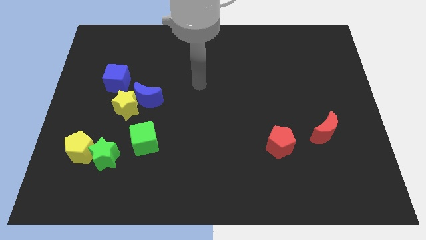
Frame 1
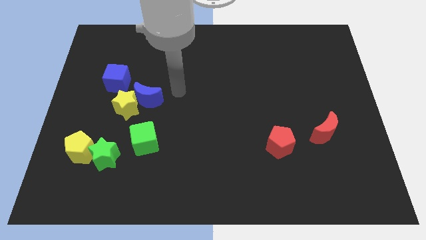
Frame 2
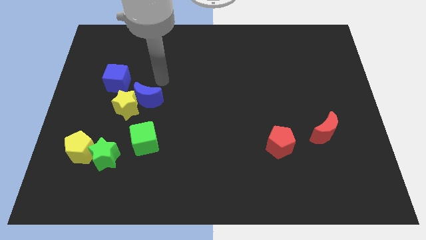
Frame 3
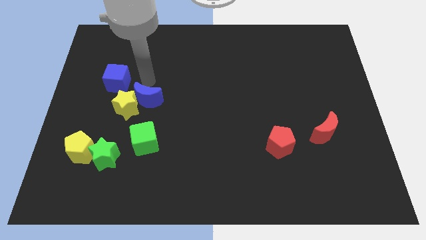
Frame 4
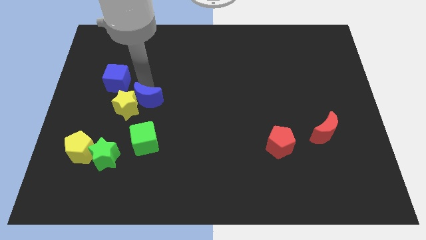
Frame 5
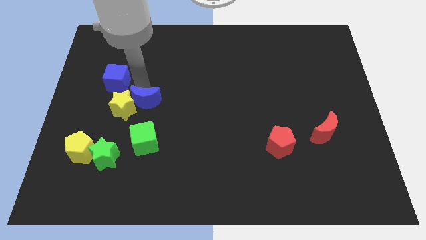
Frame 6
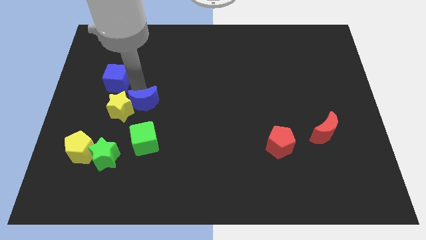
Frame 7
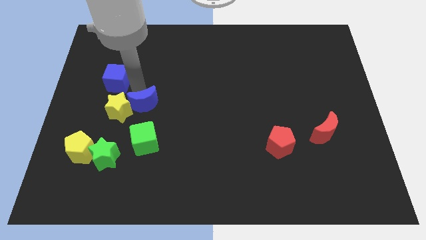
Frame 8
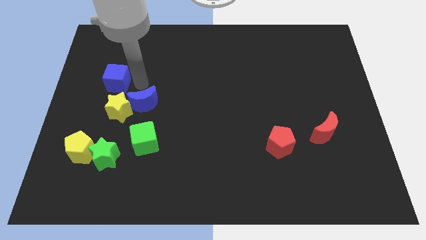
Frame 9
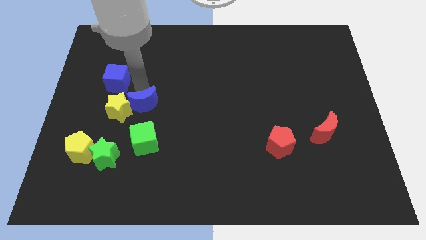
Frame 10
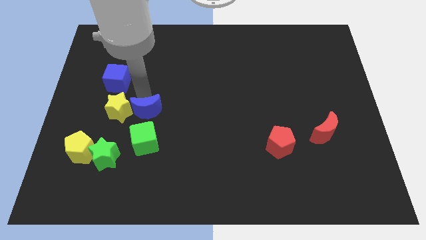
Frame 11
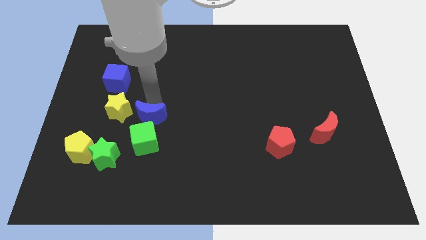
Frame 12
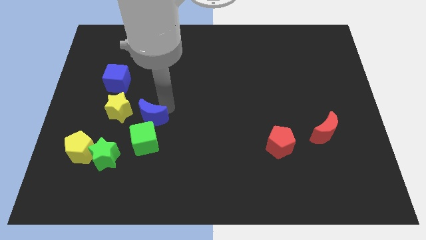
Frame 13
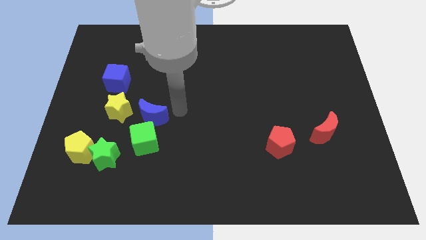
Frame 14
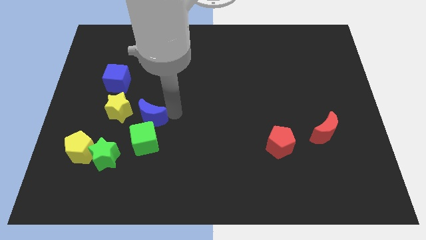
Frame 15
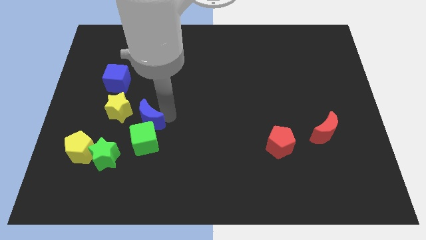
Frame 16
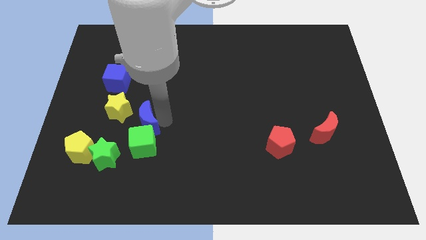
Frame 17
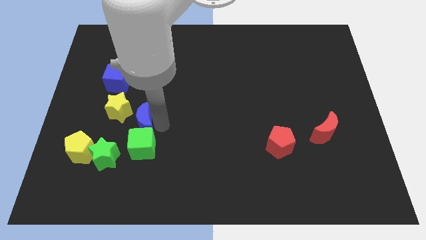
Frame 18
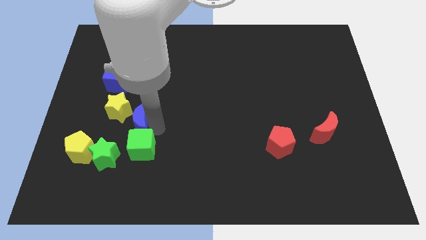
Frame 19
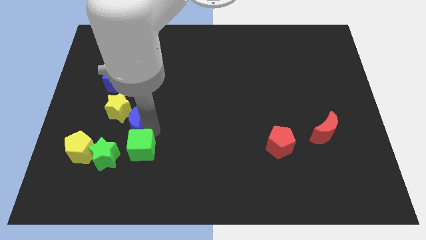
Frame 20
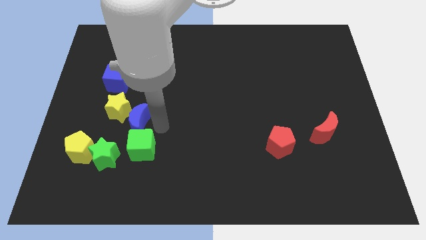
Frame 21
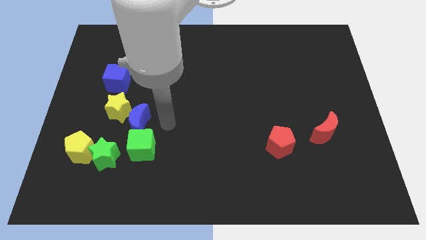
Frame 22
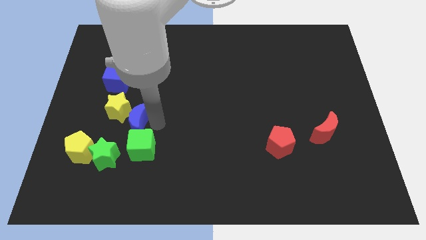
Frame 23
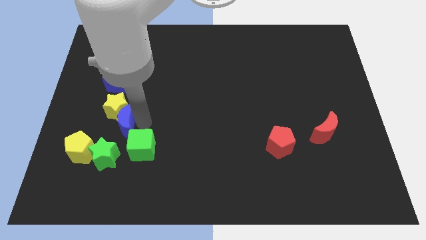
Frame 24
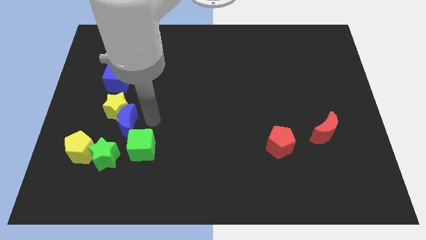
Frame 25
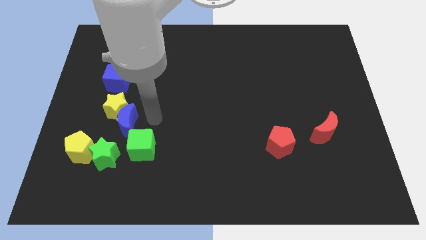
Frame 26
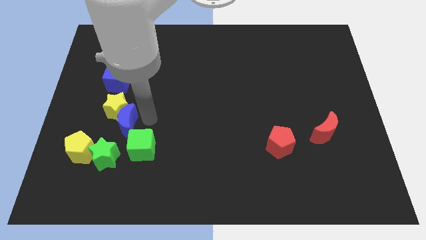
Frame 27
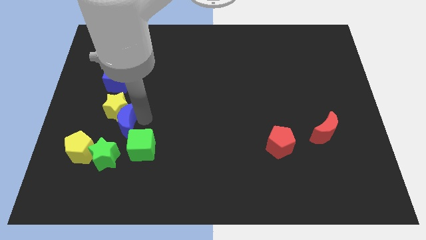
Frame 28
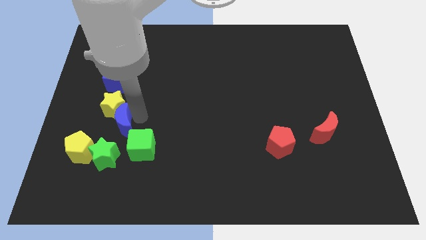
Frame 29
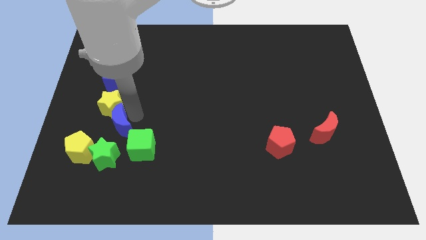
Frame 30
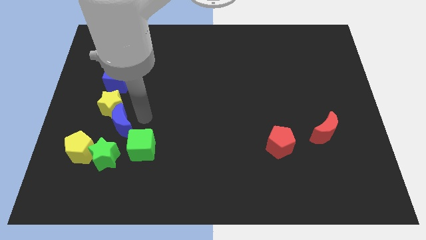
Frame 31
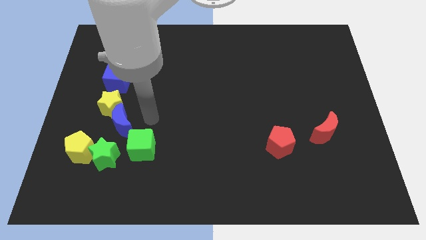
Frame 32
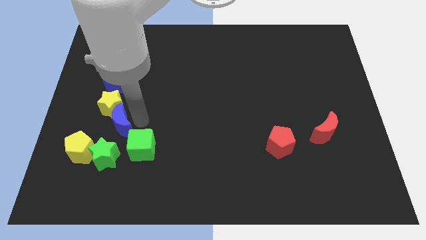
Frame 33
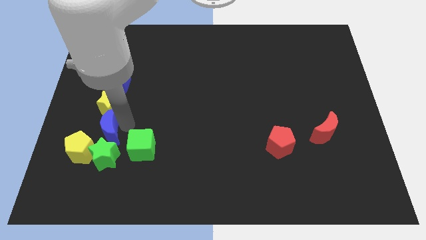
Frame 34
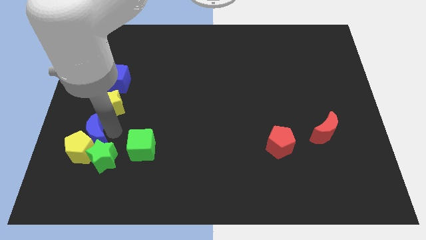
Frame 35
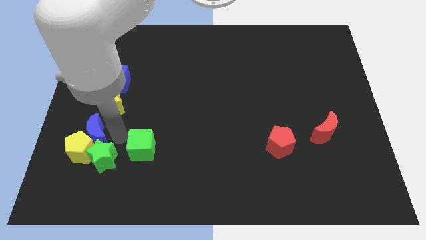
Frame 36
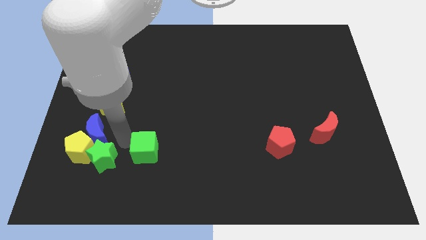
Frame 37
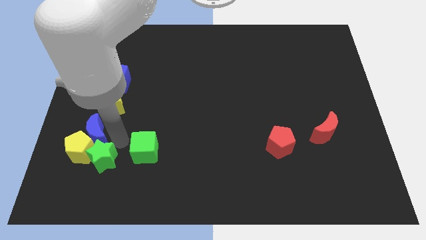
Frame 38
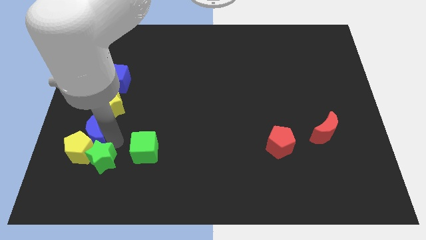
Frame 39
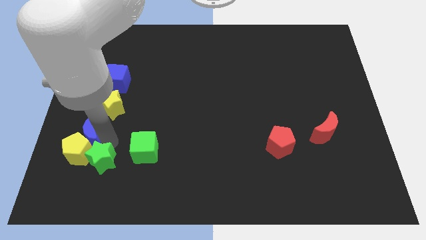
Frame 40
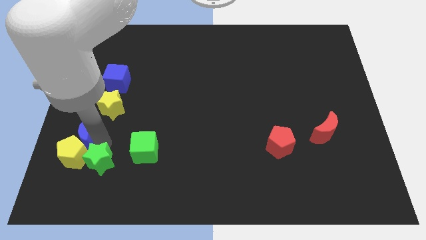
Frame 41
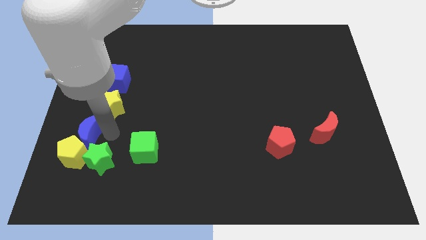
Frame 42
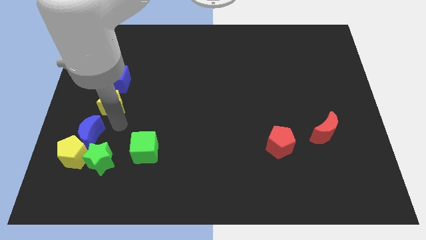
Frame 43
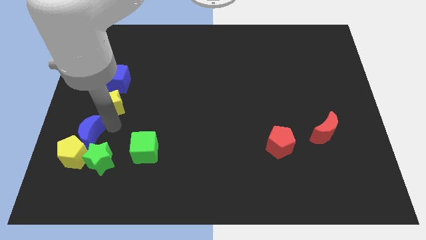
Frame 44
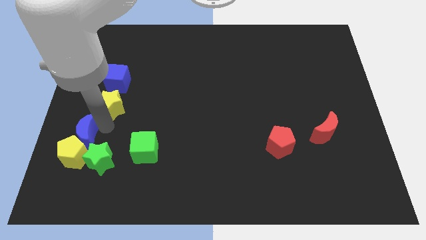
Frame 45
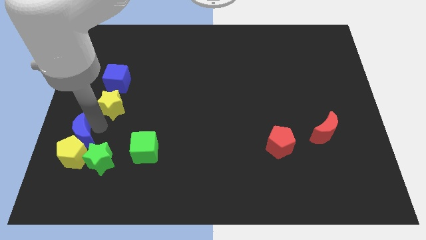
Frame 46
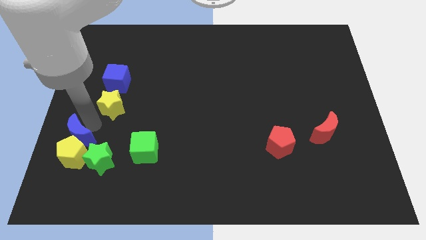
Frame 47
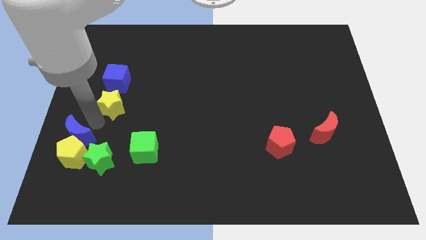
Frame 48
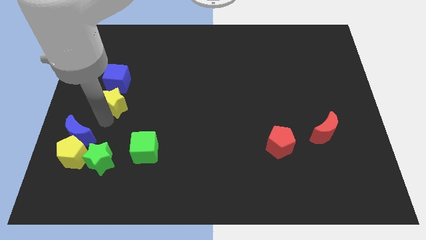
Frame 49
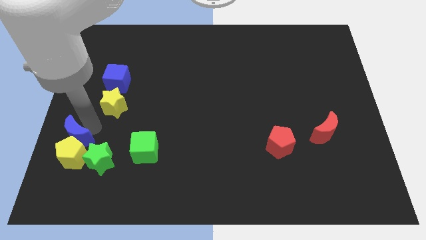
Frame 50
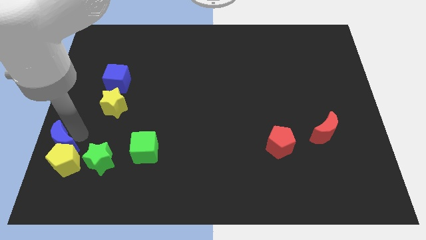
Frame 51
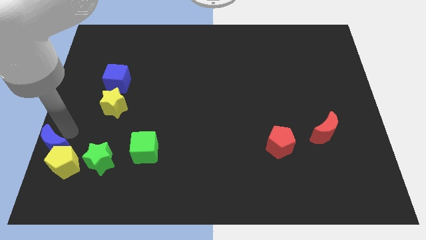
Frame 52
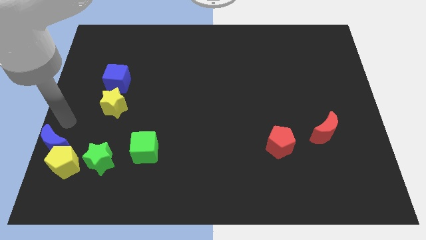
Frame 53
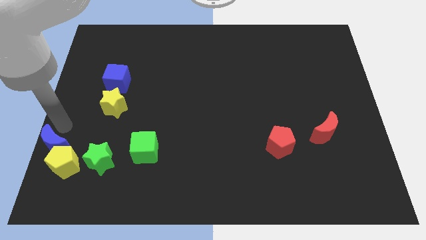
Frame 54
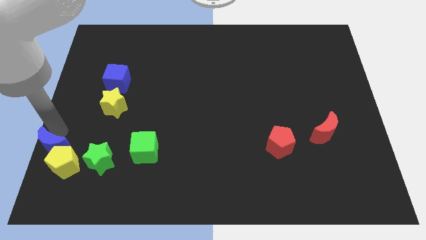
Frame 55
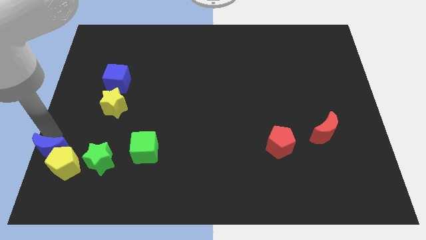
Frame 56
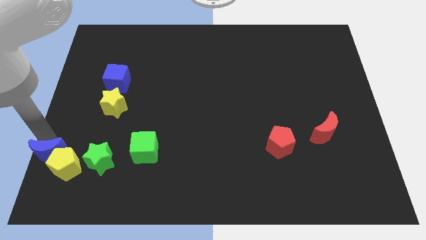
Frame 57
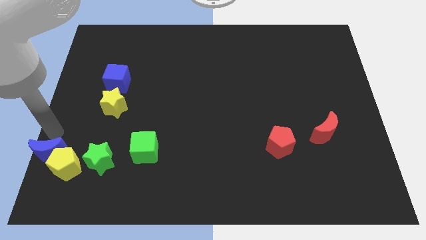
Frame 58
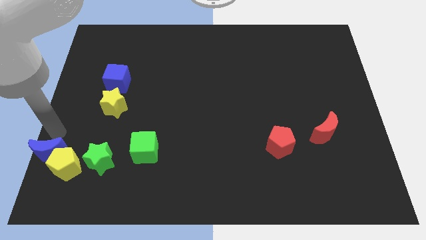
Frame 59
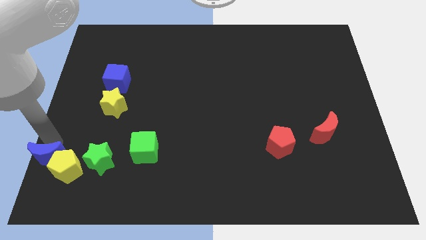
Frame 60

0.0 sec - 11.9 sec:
move the blue moon to the bottom left of the board

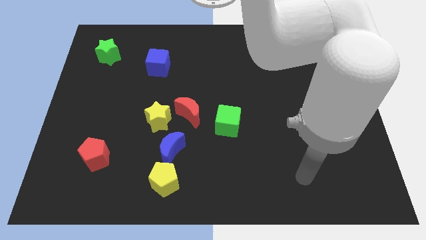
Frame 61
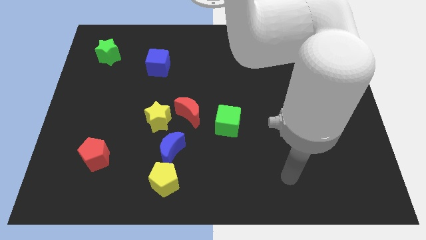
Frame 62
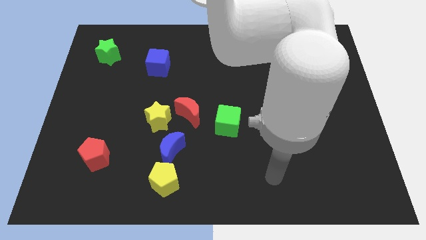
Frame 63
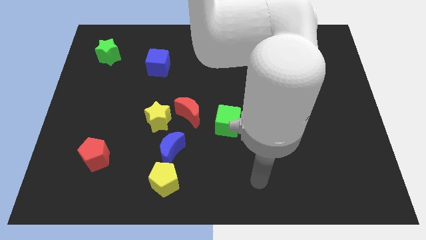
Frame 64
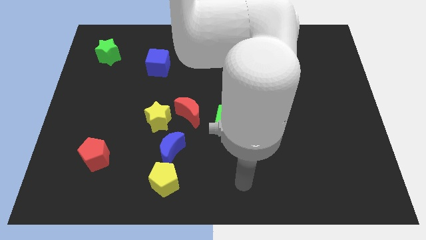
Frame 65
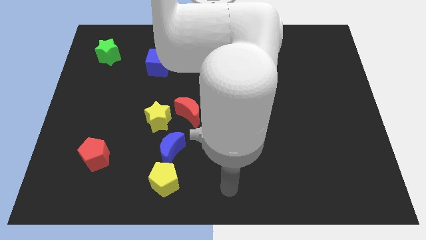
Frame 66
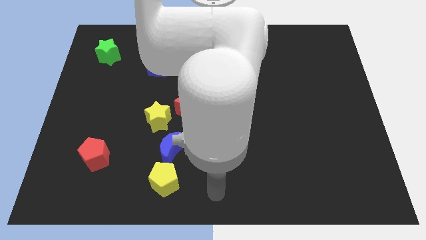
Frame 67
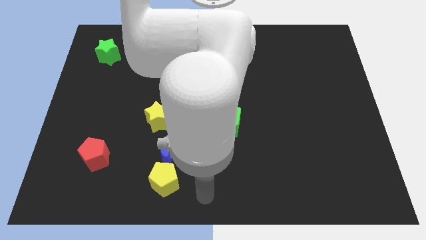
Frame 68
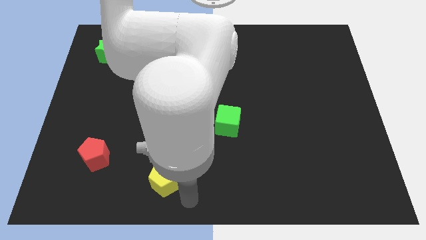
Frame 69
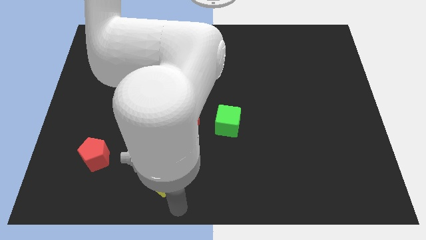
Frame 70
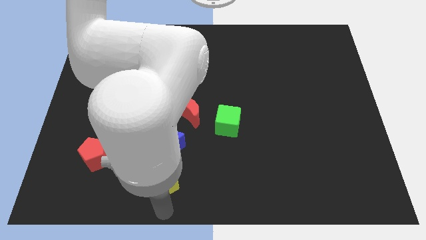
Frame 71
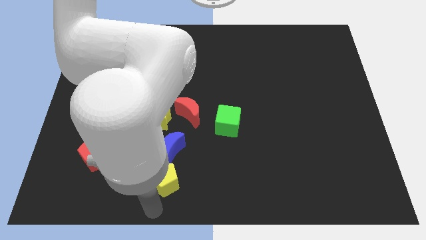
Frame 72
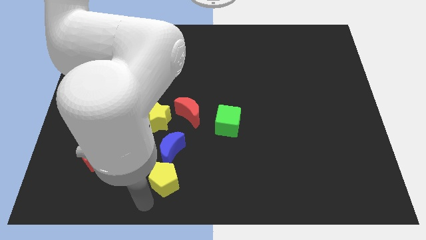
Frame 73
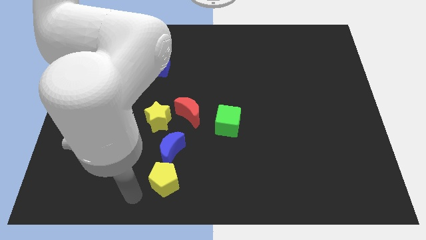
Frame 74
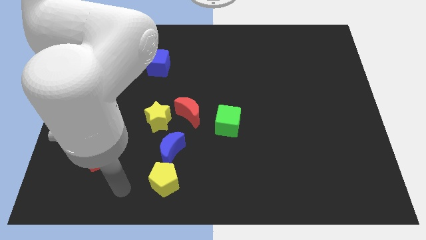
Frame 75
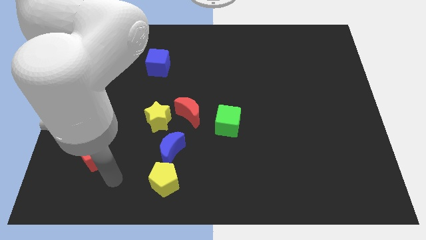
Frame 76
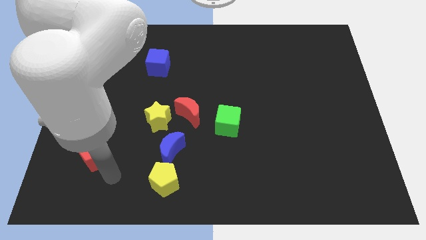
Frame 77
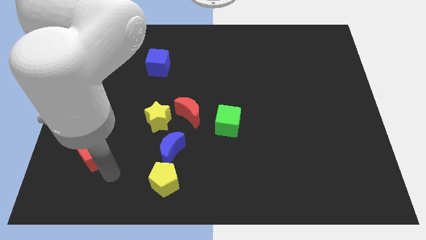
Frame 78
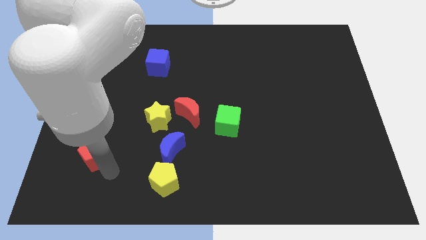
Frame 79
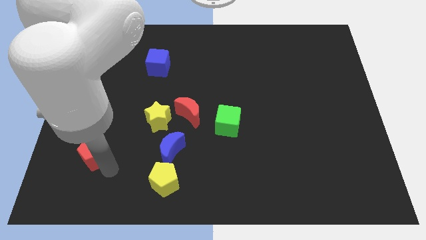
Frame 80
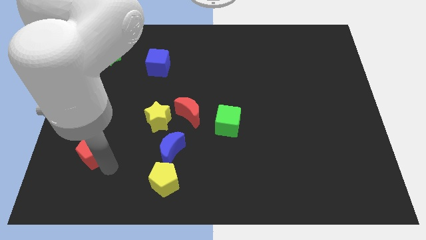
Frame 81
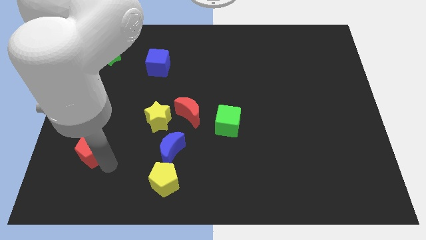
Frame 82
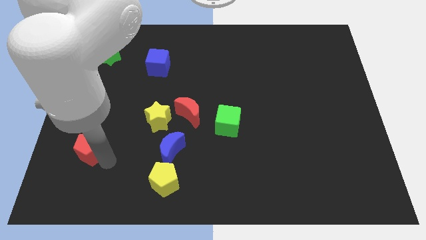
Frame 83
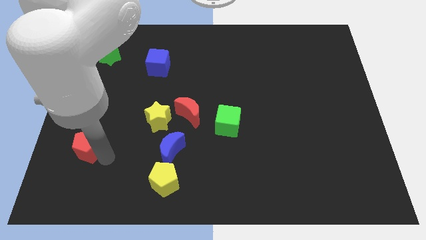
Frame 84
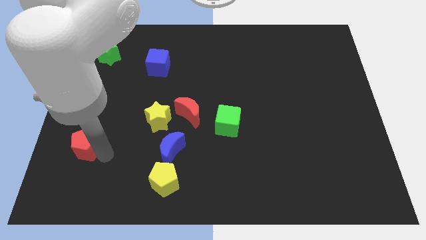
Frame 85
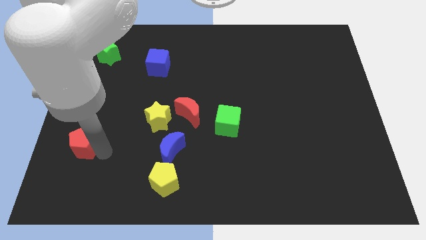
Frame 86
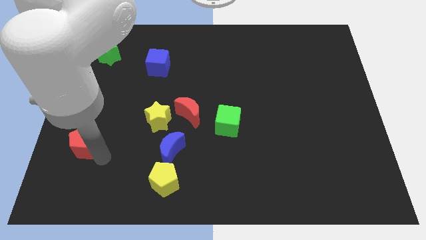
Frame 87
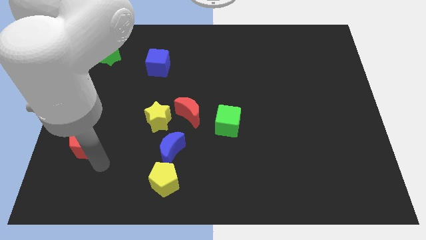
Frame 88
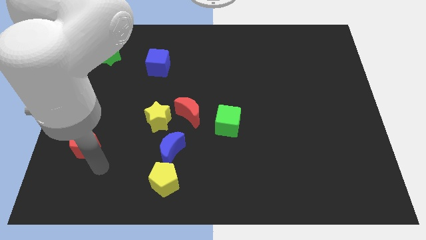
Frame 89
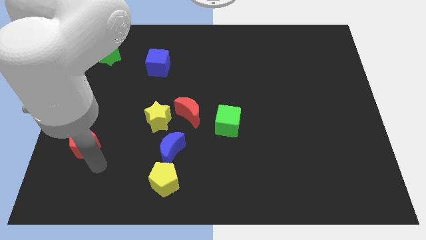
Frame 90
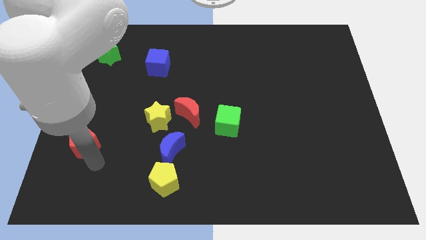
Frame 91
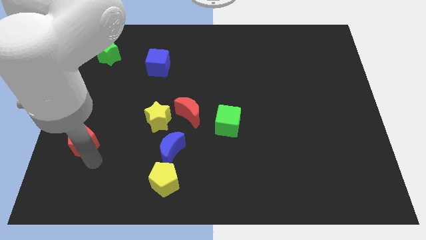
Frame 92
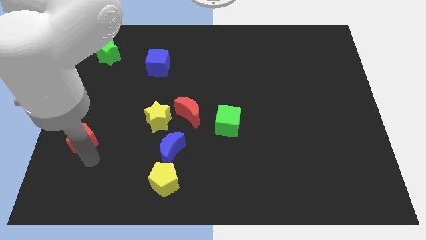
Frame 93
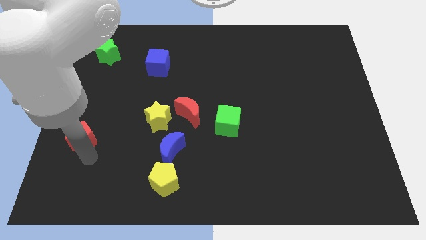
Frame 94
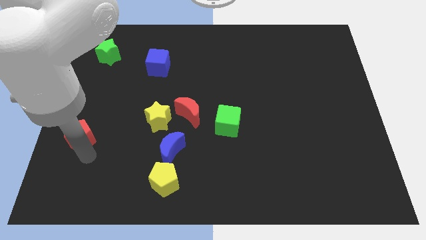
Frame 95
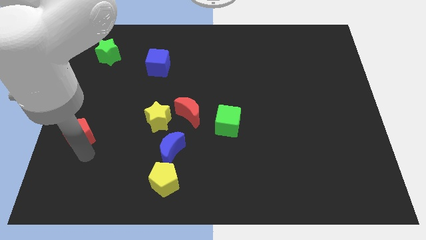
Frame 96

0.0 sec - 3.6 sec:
slide the red pentagon to the center left
